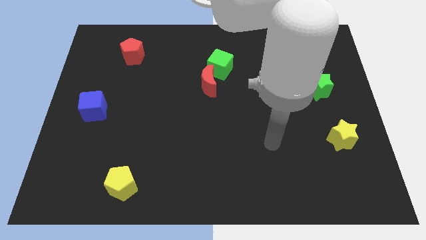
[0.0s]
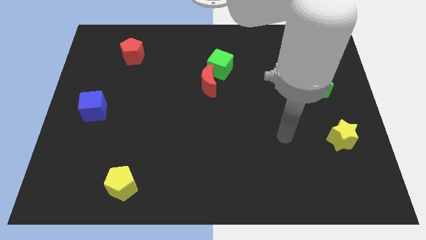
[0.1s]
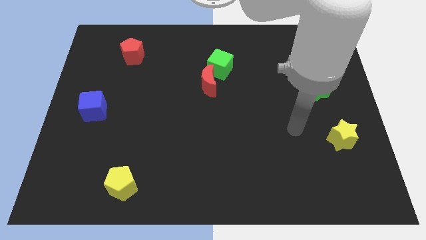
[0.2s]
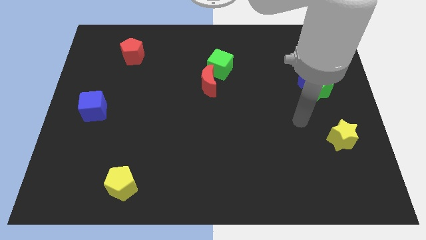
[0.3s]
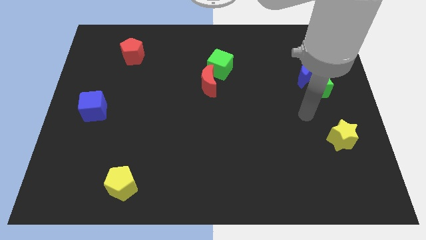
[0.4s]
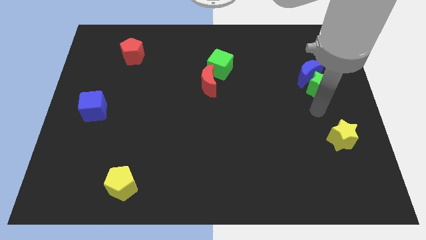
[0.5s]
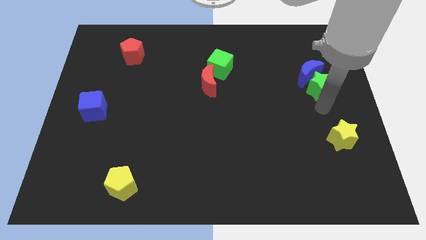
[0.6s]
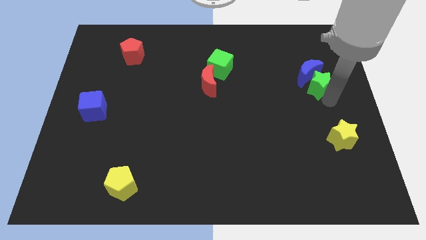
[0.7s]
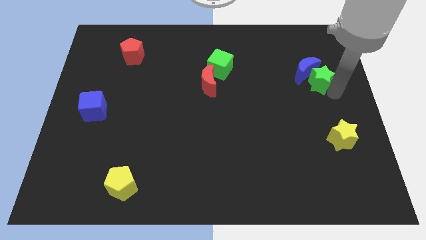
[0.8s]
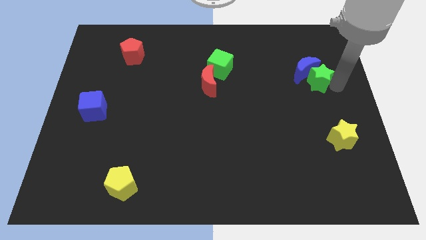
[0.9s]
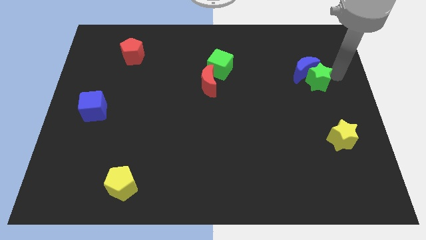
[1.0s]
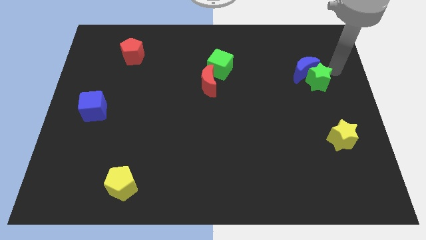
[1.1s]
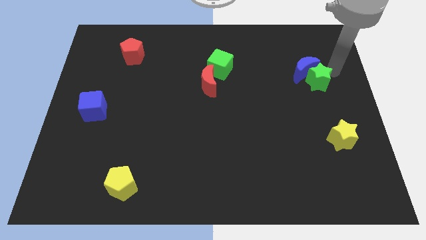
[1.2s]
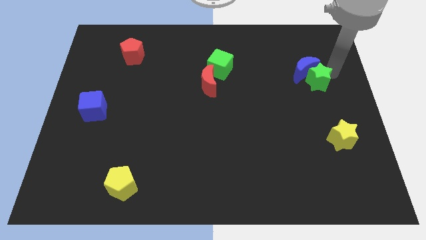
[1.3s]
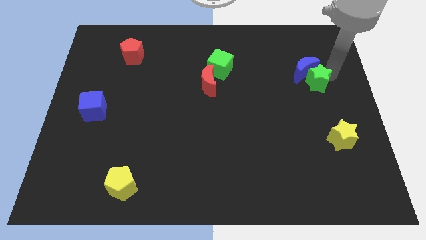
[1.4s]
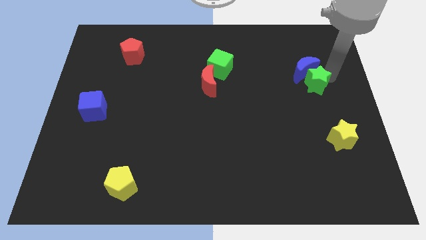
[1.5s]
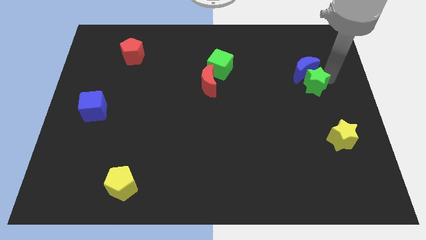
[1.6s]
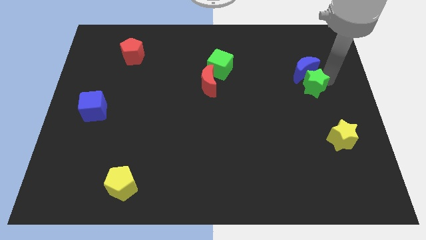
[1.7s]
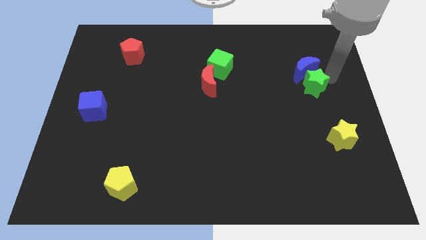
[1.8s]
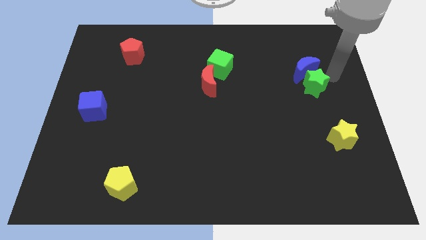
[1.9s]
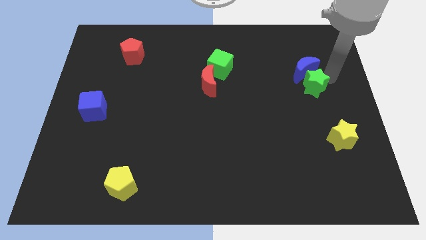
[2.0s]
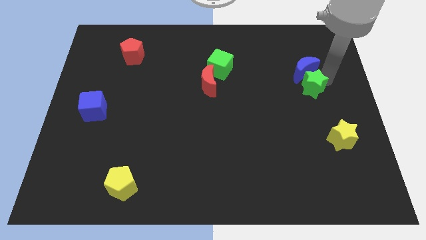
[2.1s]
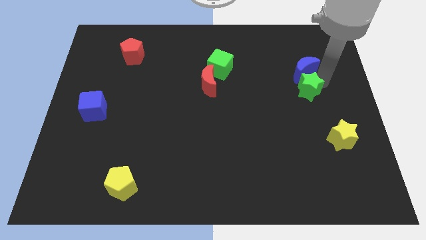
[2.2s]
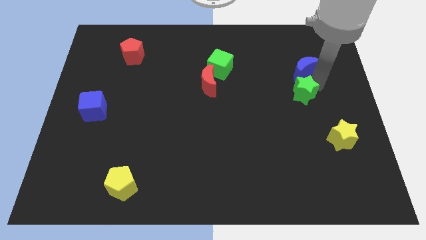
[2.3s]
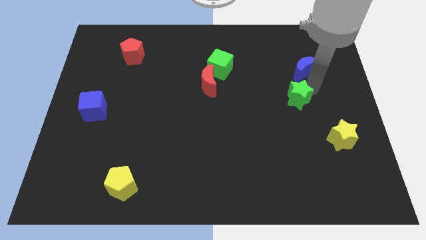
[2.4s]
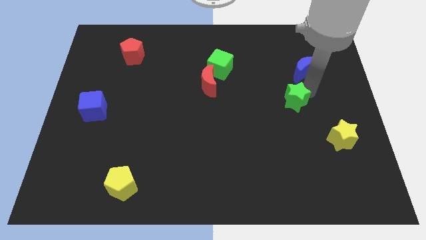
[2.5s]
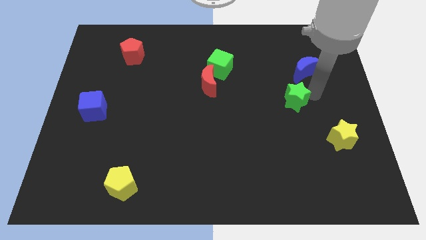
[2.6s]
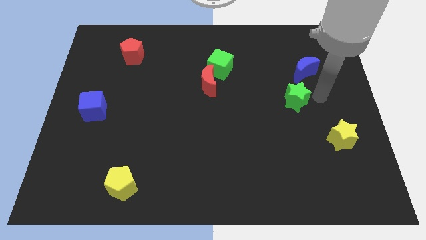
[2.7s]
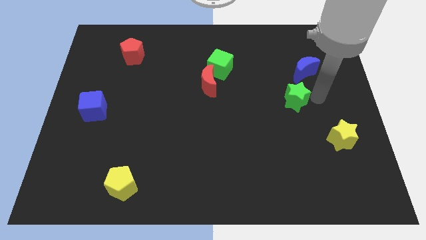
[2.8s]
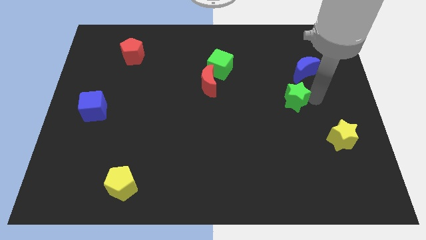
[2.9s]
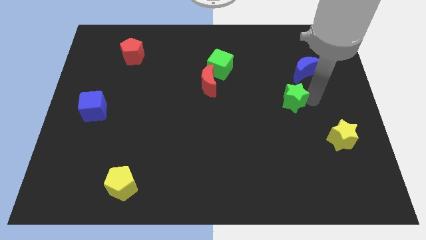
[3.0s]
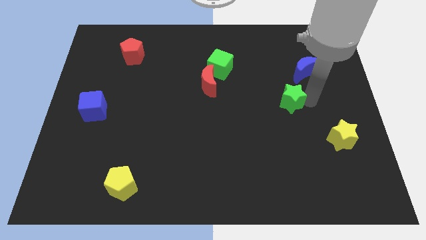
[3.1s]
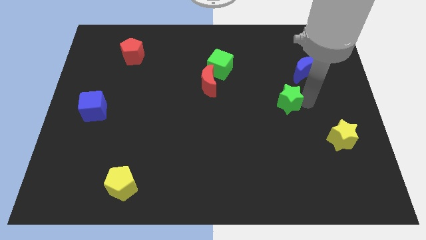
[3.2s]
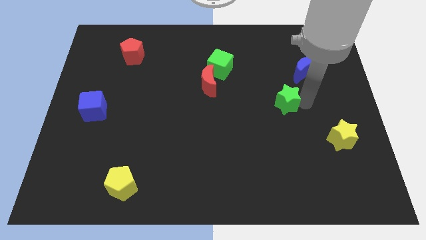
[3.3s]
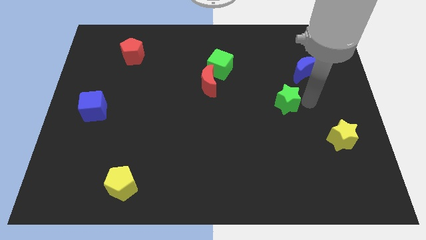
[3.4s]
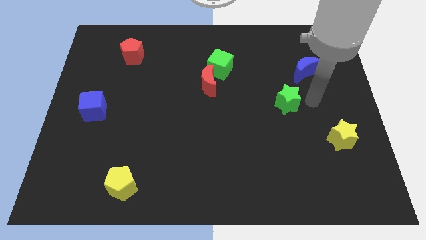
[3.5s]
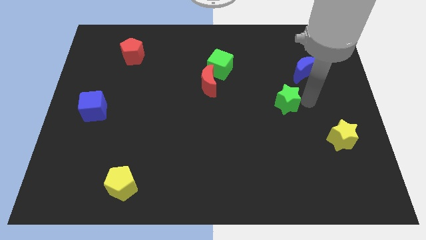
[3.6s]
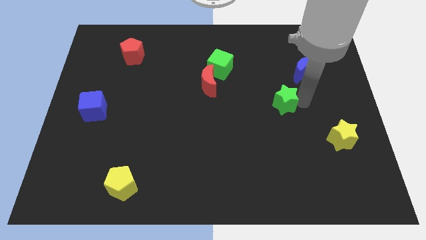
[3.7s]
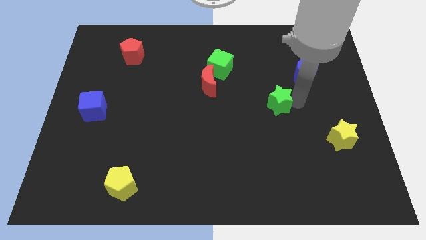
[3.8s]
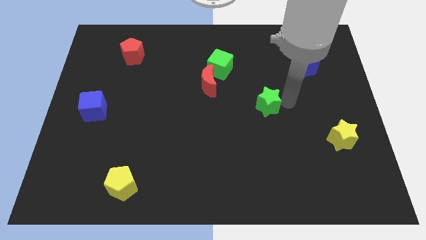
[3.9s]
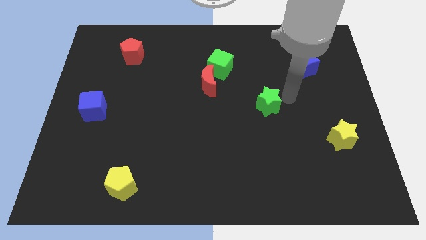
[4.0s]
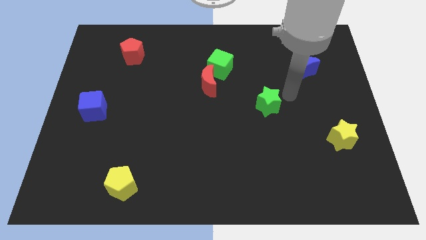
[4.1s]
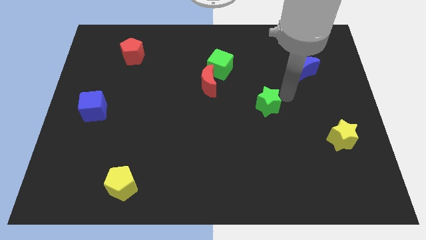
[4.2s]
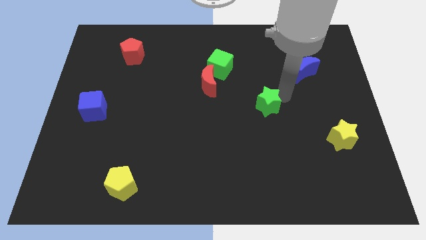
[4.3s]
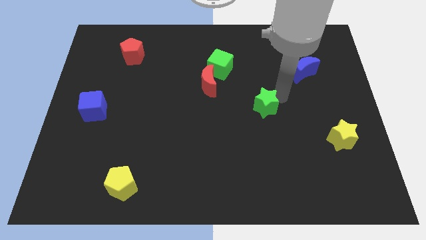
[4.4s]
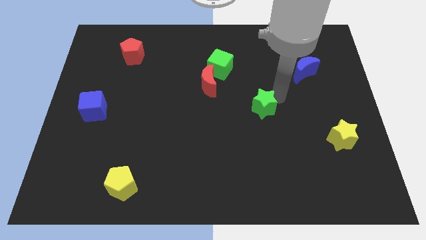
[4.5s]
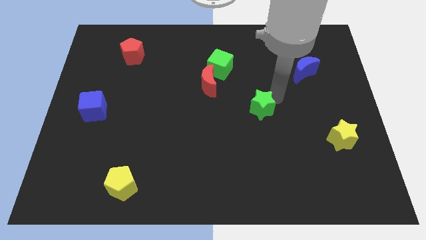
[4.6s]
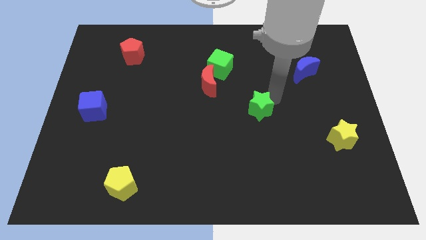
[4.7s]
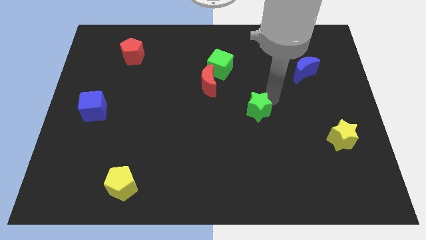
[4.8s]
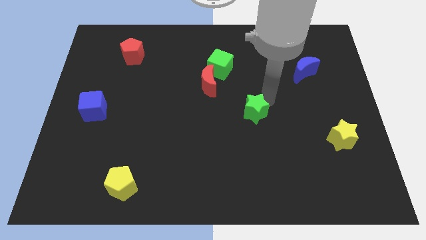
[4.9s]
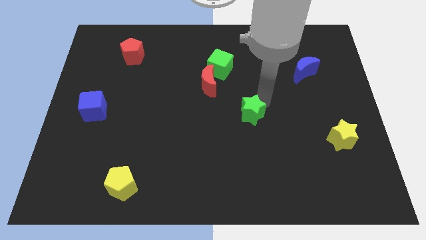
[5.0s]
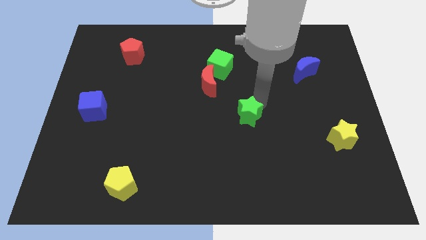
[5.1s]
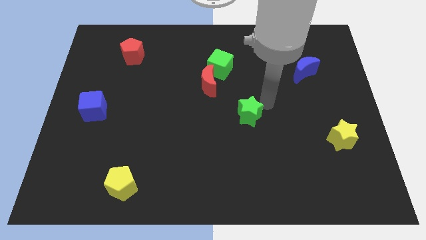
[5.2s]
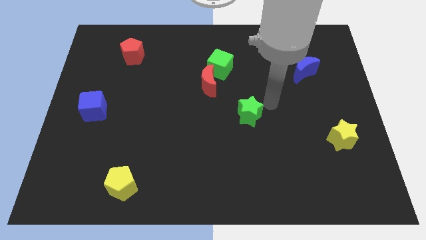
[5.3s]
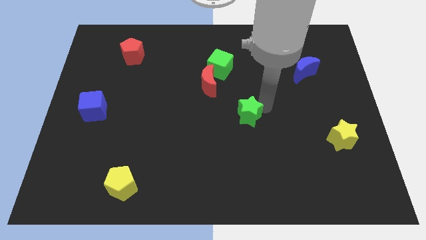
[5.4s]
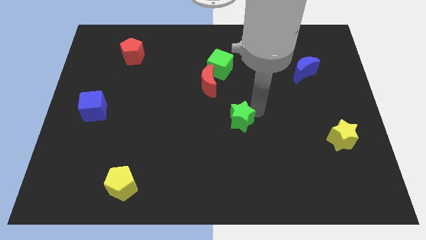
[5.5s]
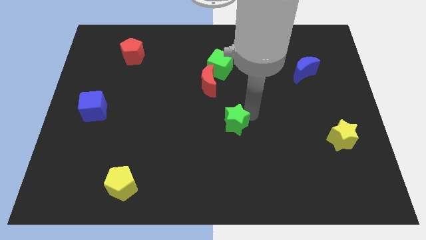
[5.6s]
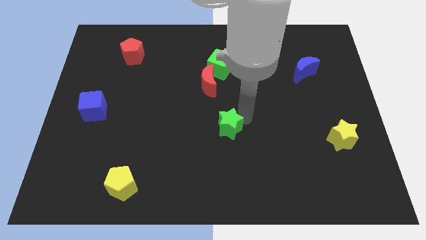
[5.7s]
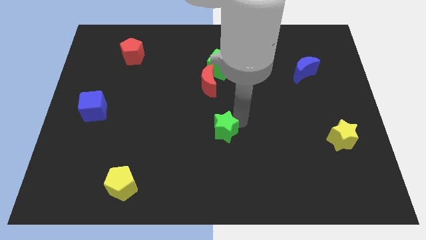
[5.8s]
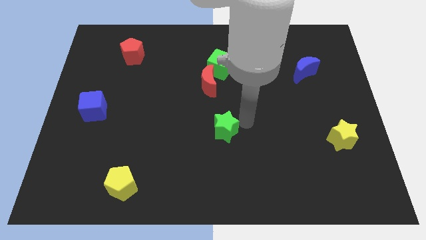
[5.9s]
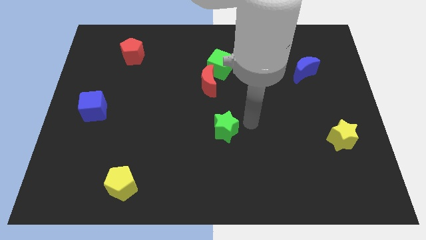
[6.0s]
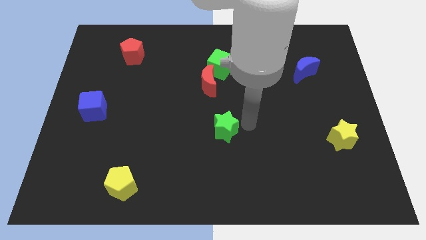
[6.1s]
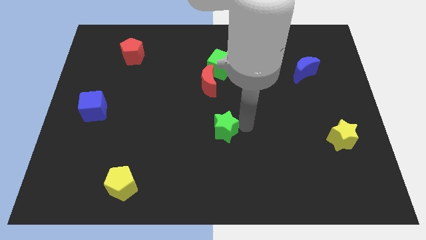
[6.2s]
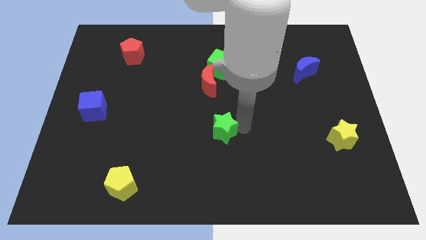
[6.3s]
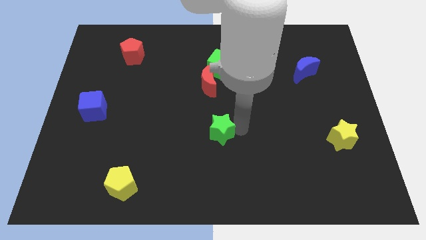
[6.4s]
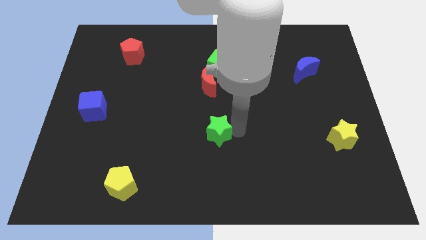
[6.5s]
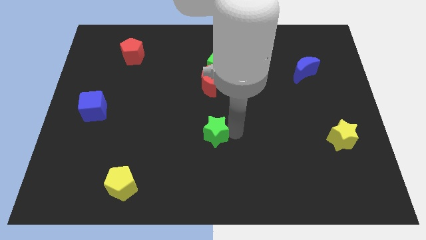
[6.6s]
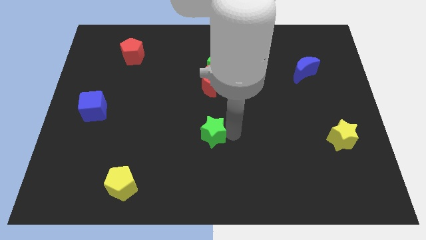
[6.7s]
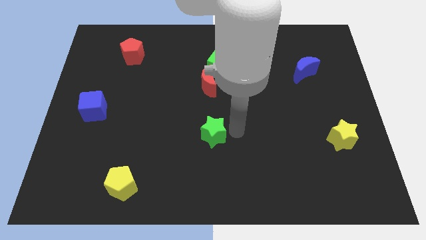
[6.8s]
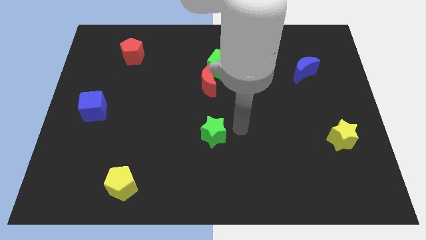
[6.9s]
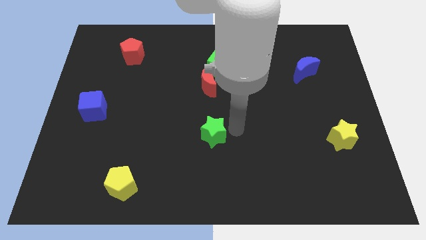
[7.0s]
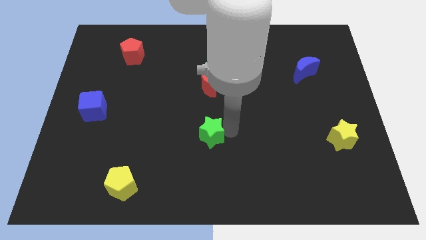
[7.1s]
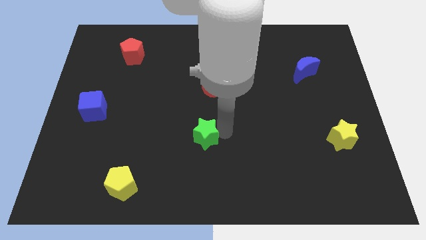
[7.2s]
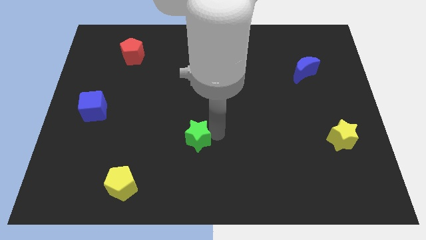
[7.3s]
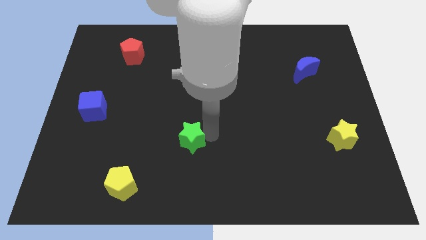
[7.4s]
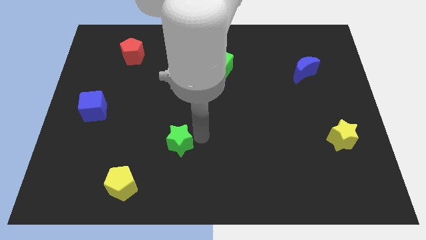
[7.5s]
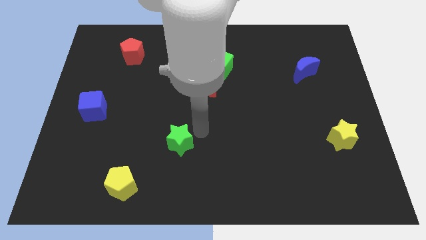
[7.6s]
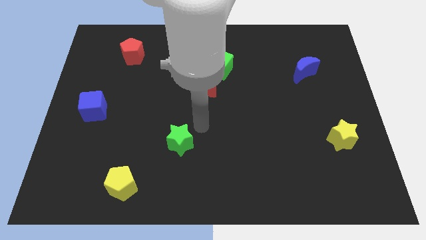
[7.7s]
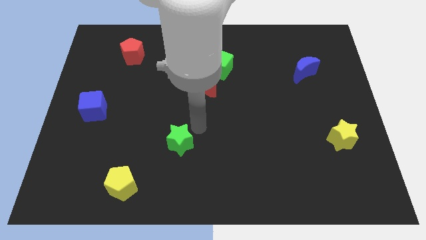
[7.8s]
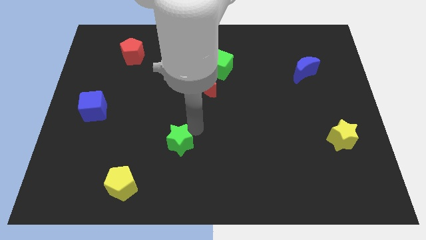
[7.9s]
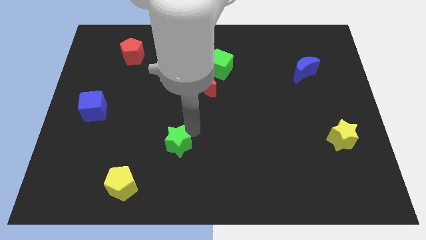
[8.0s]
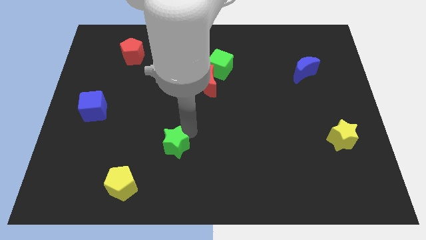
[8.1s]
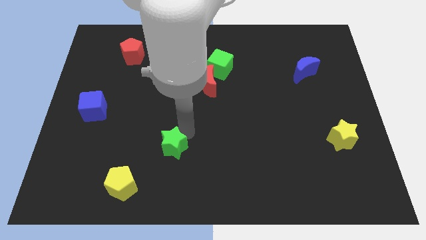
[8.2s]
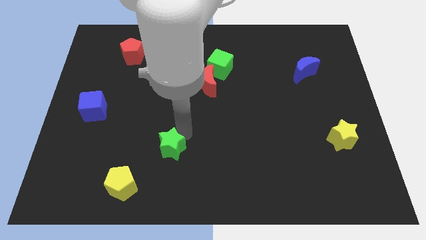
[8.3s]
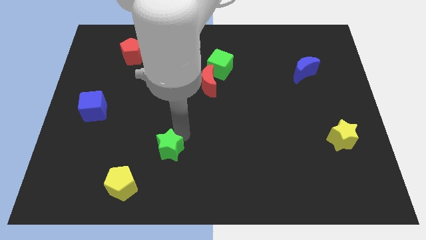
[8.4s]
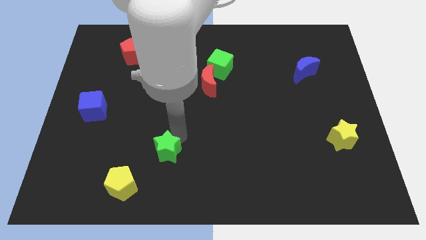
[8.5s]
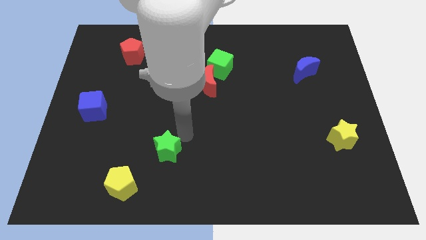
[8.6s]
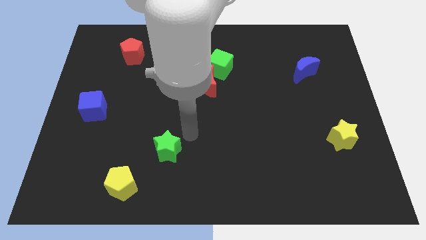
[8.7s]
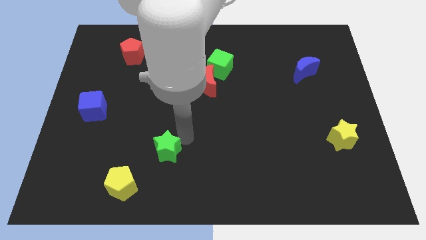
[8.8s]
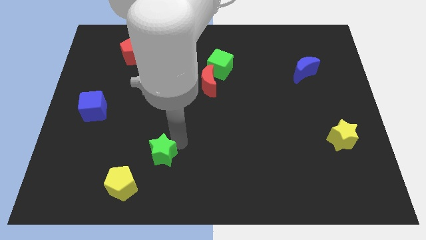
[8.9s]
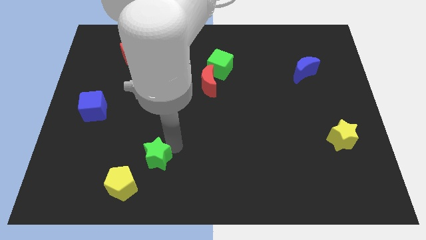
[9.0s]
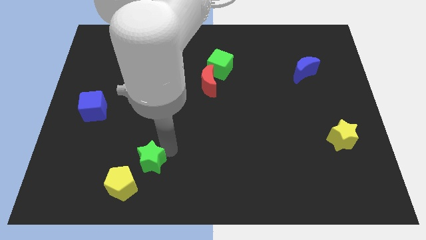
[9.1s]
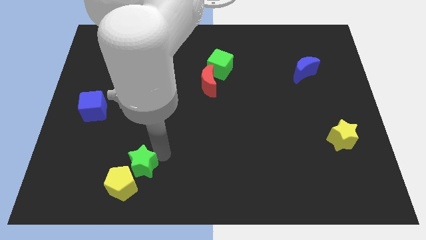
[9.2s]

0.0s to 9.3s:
put the green star close to the yellow pentagon
